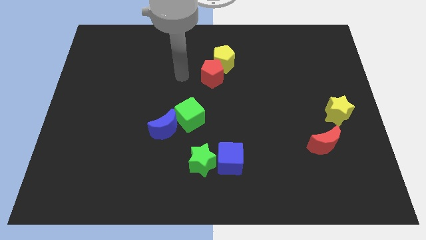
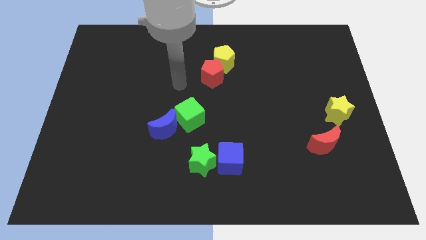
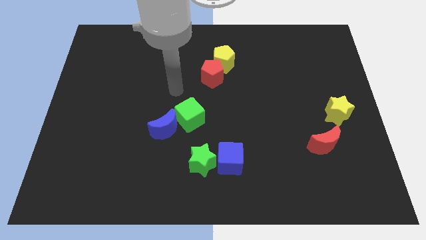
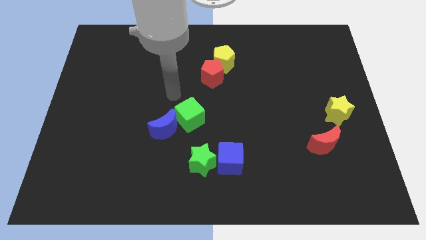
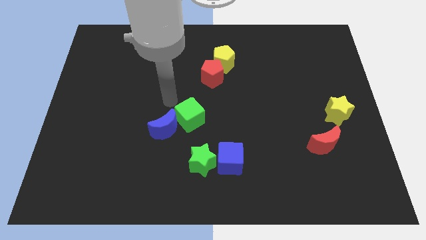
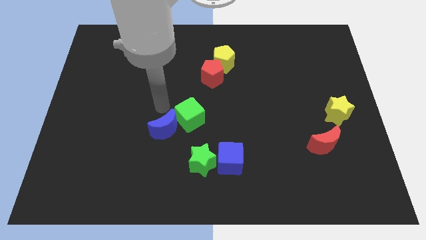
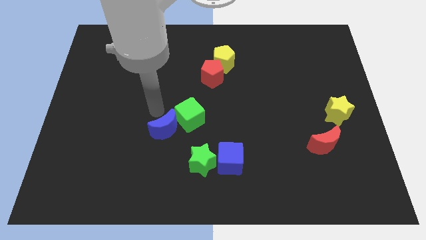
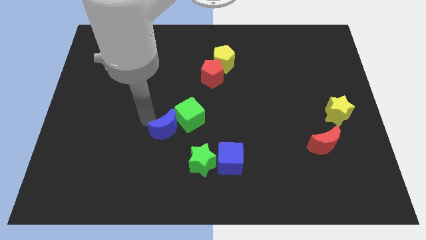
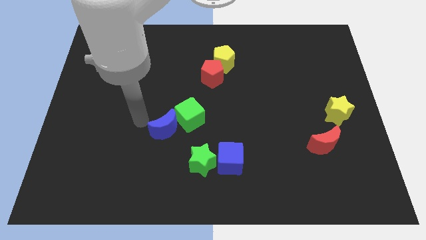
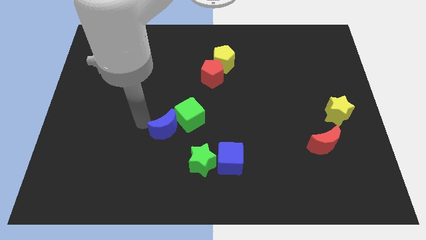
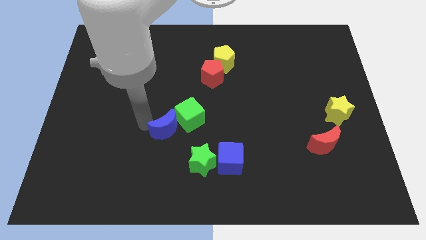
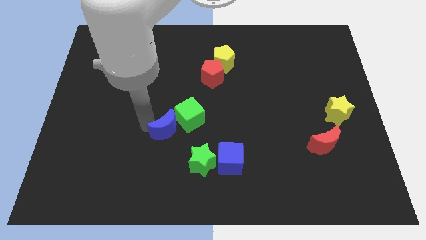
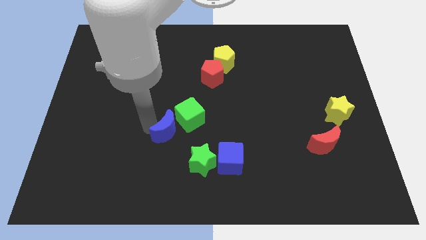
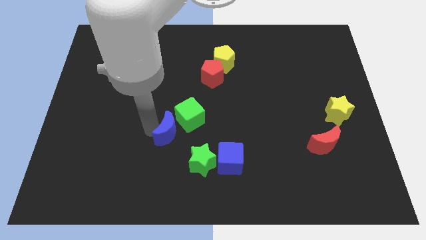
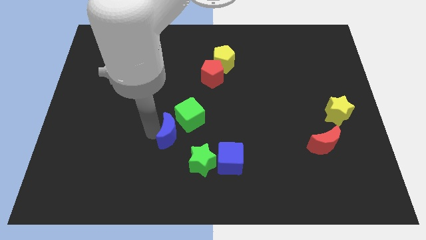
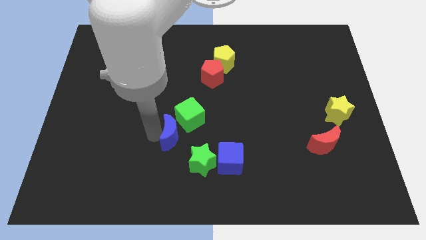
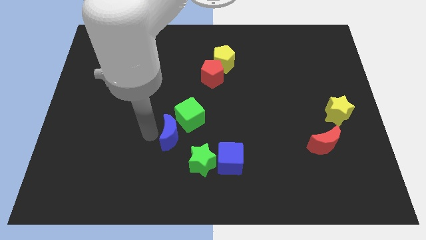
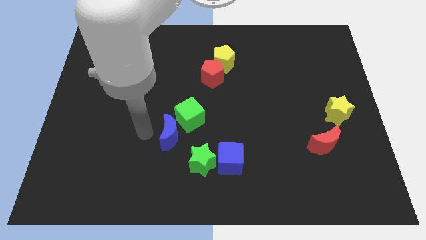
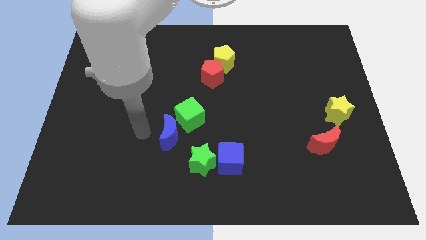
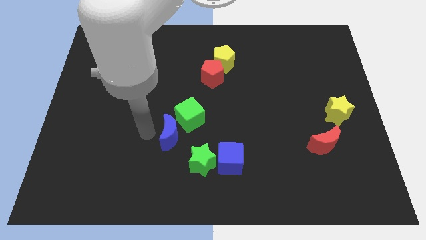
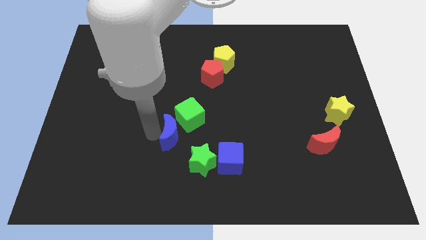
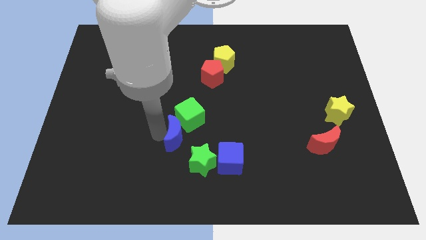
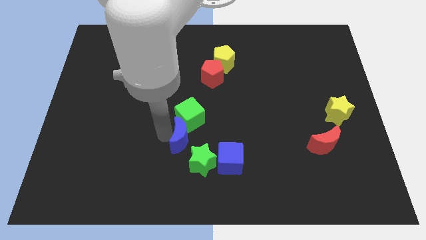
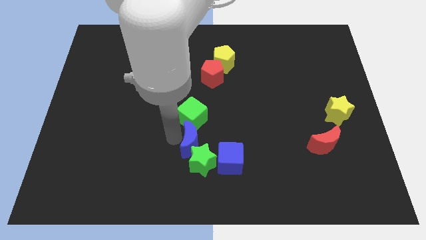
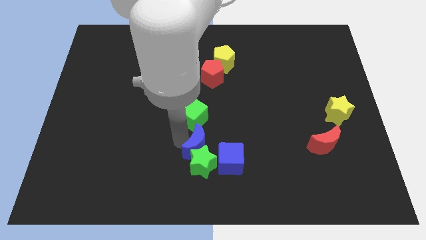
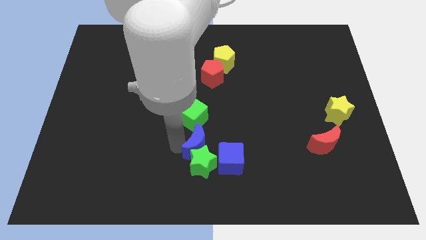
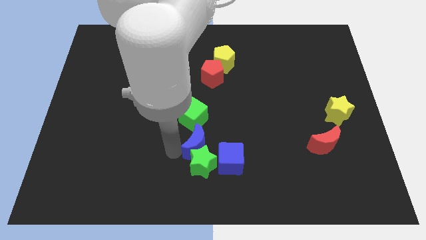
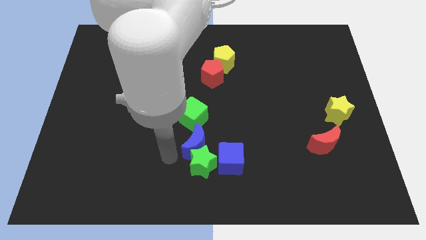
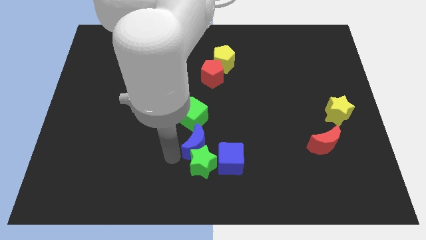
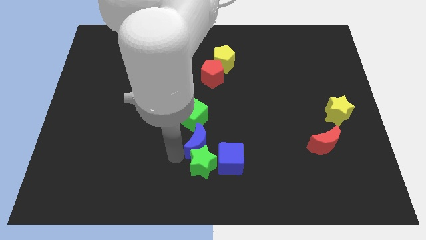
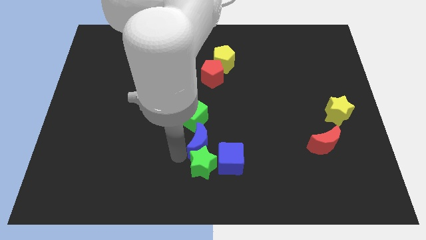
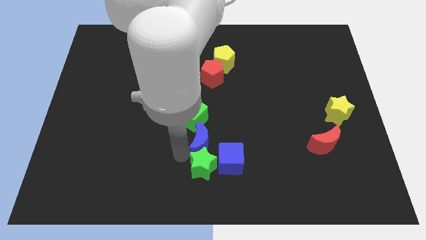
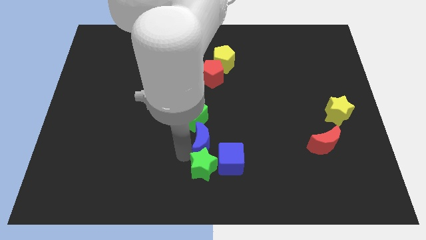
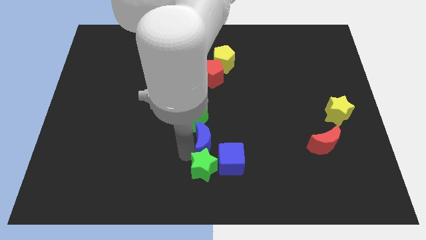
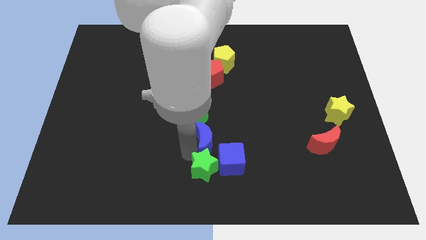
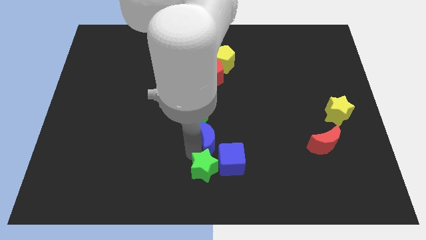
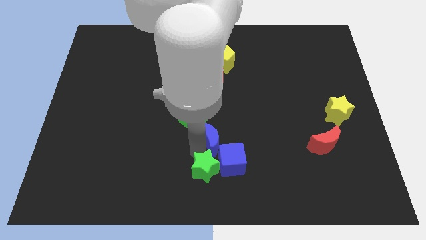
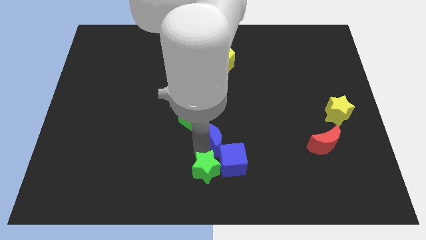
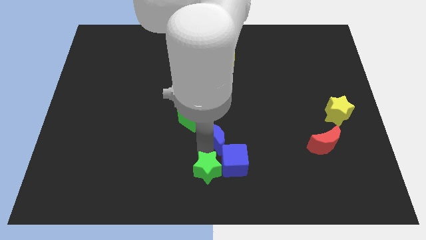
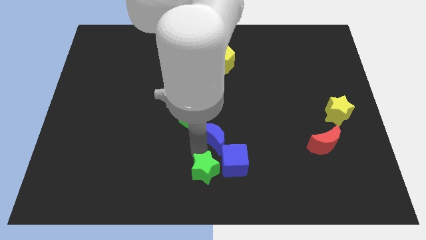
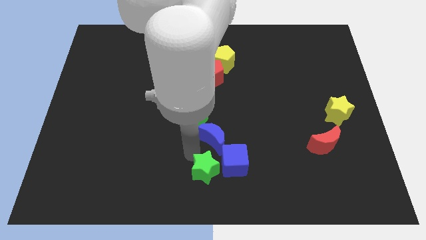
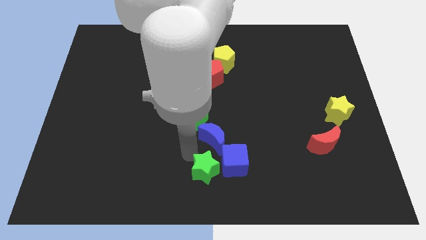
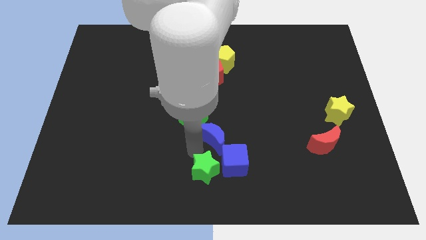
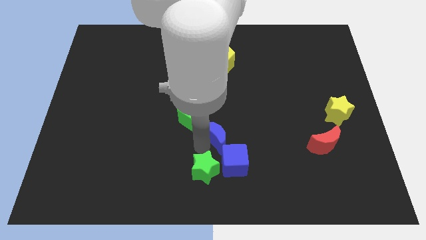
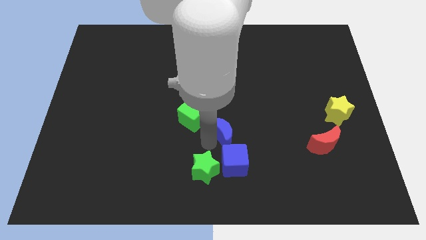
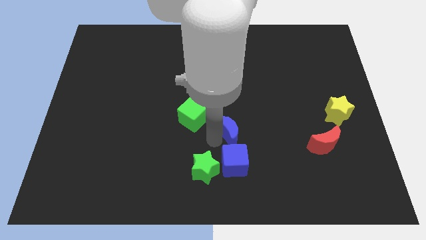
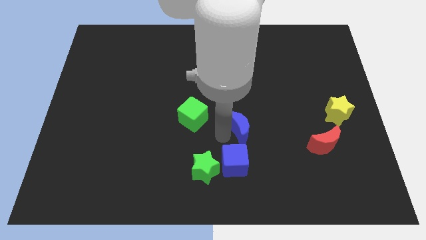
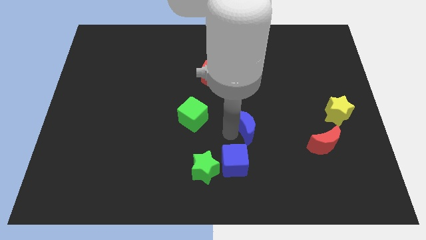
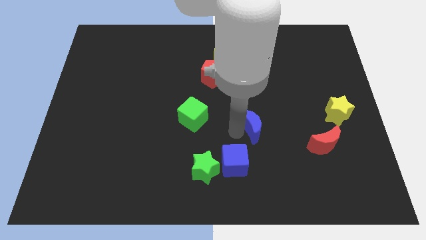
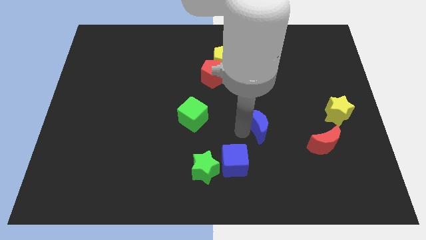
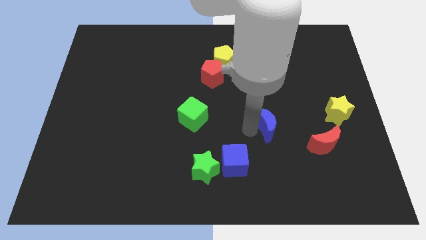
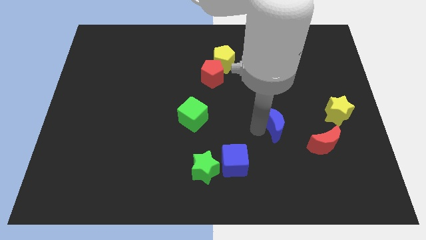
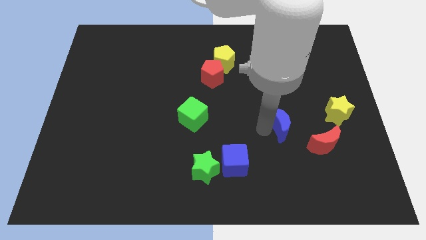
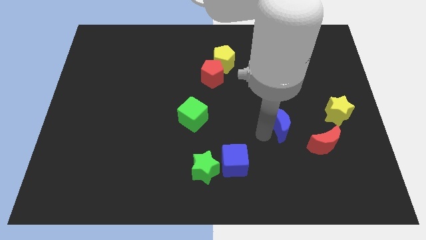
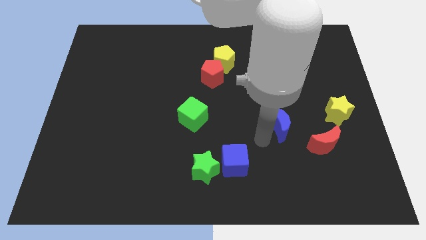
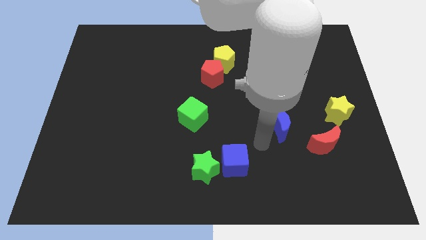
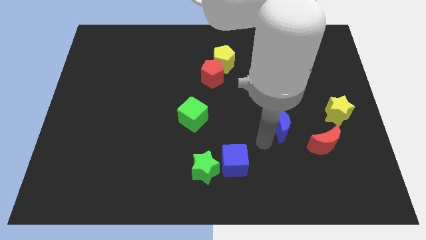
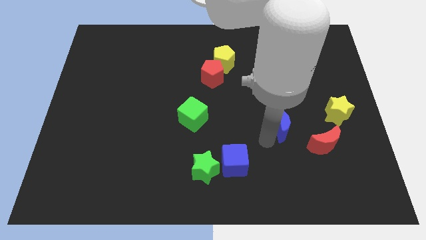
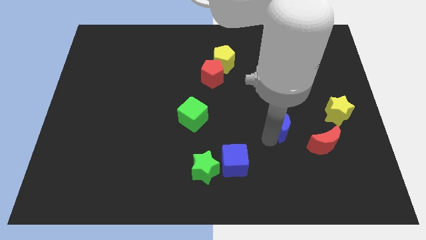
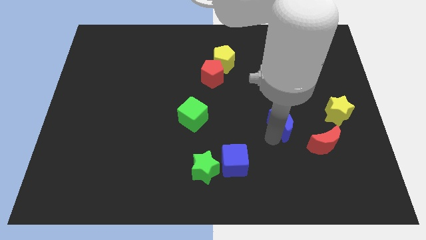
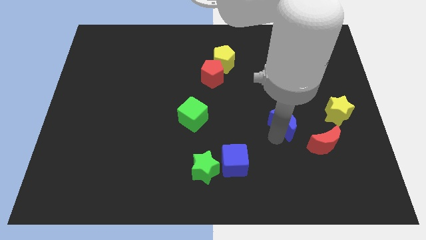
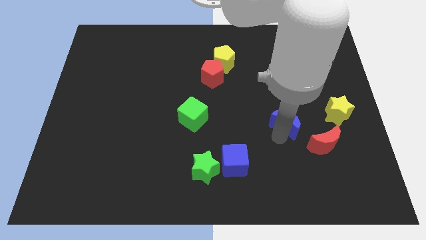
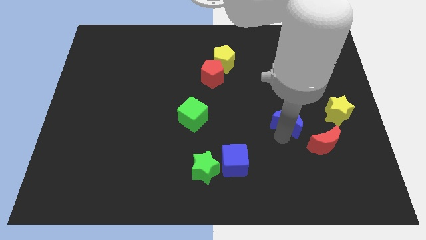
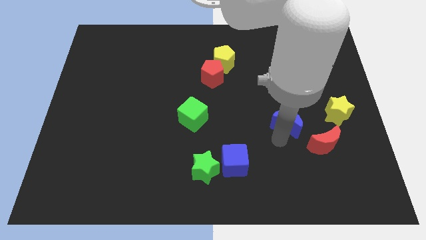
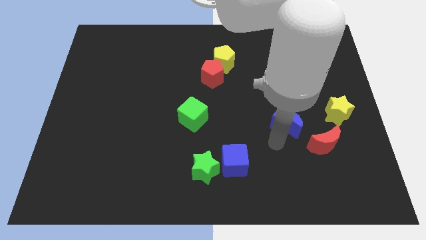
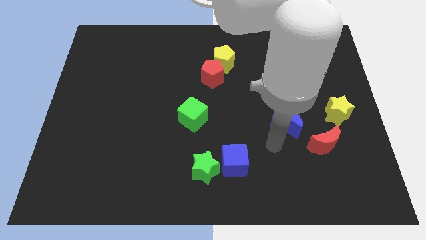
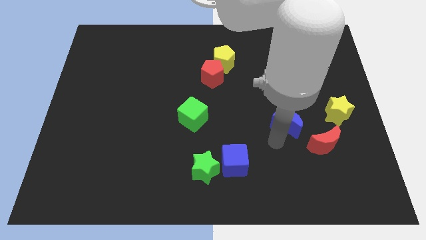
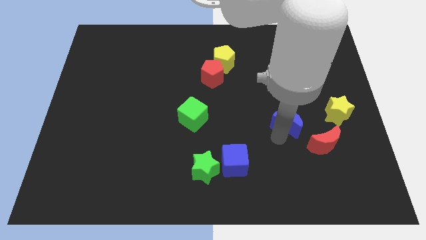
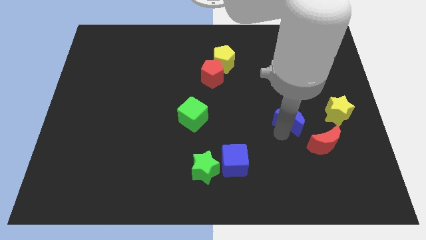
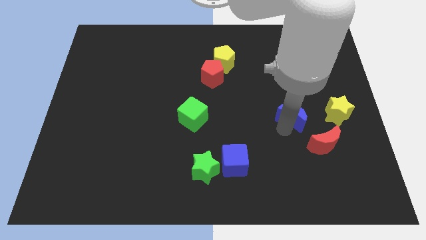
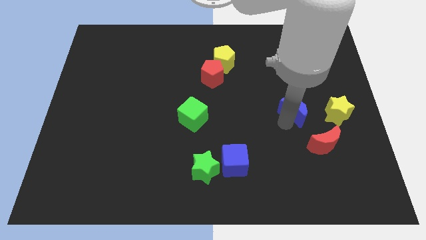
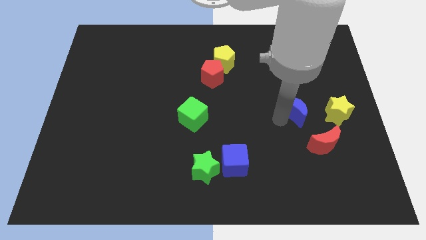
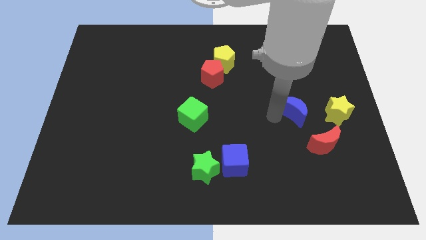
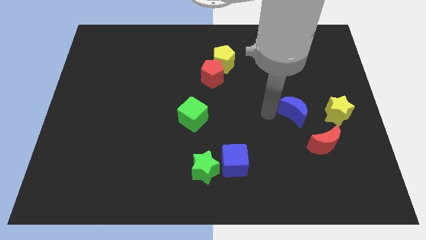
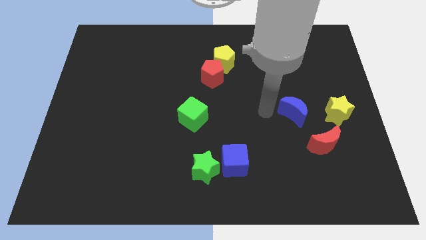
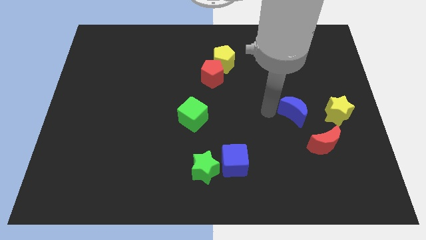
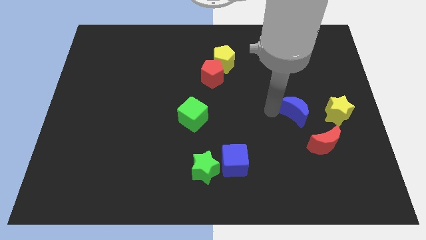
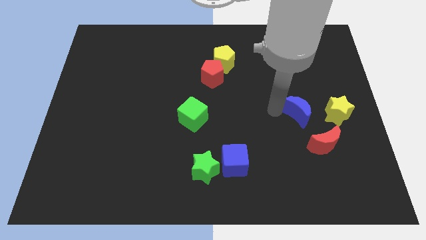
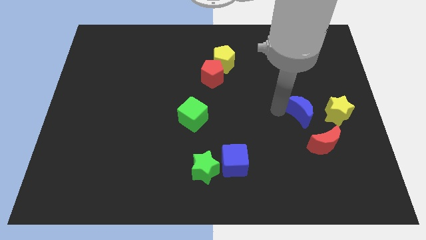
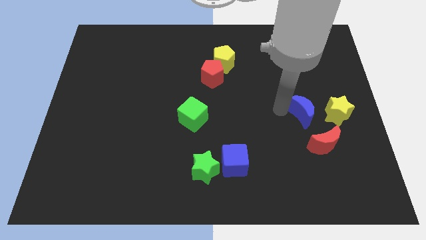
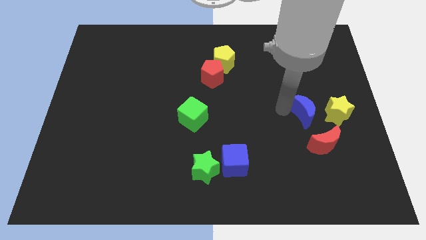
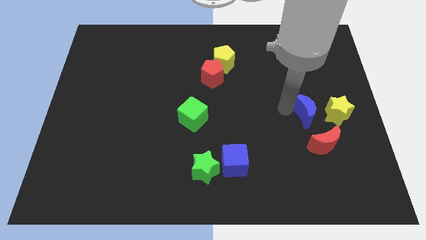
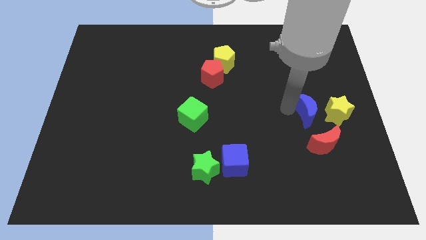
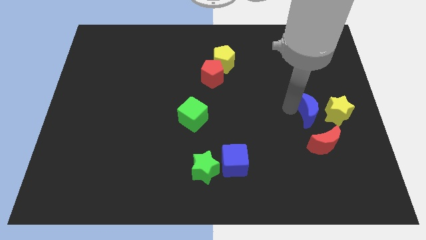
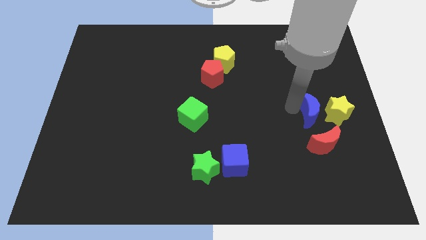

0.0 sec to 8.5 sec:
slide the blue moon towards the yellow star

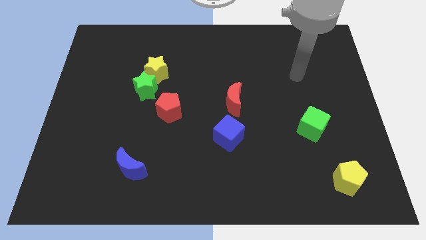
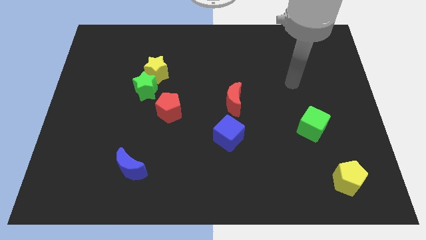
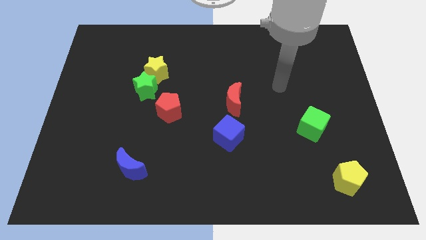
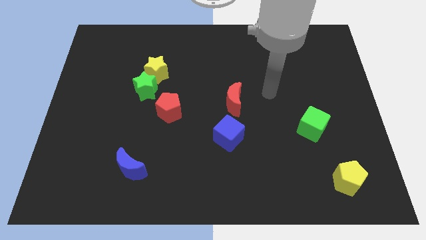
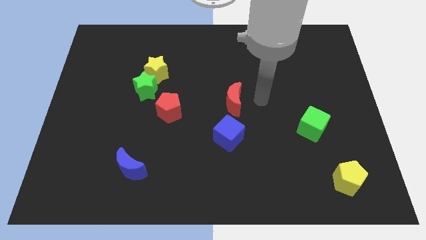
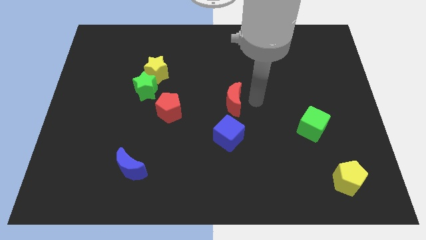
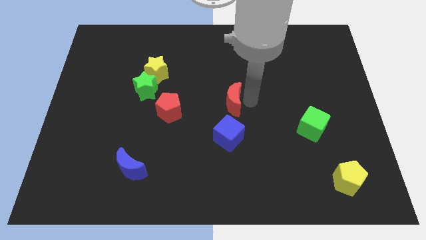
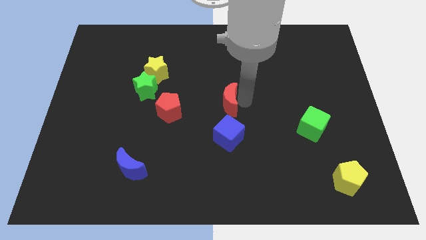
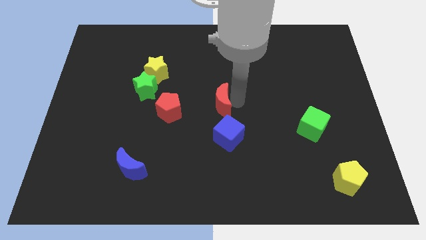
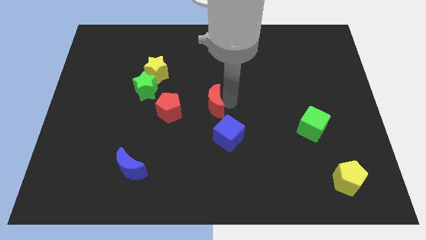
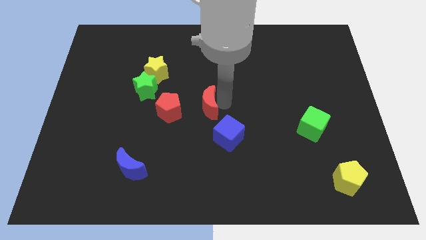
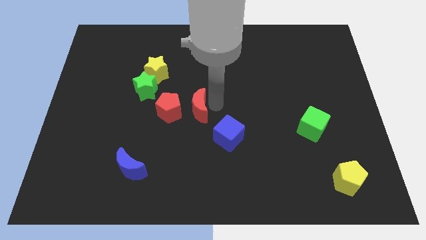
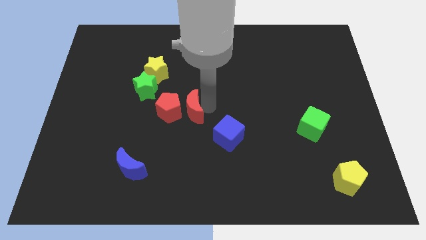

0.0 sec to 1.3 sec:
slide the red moon close to the red pentagon
